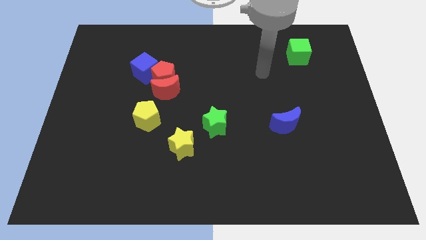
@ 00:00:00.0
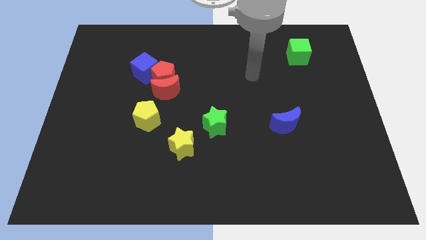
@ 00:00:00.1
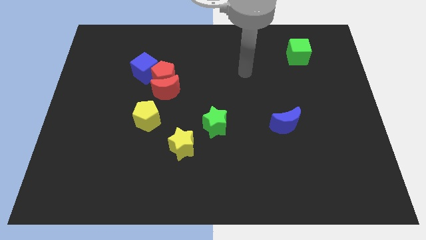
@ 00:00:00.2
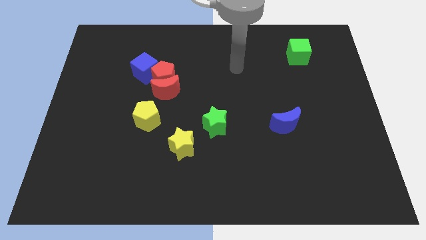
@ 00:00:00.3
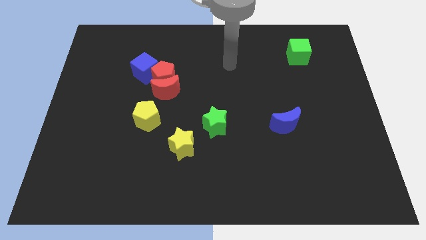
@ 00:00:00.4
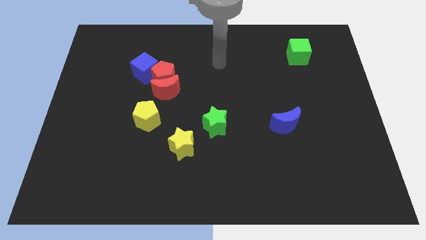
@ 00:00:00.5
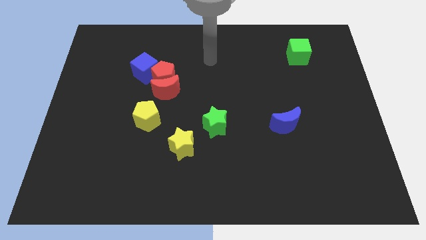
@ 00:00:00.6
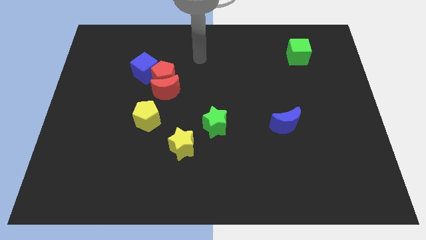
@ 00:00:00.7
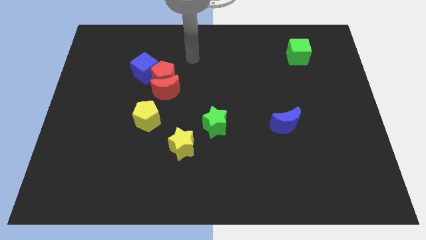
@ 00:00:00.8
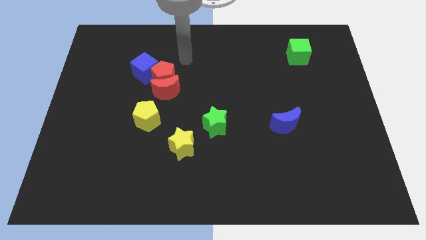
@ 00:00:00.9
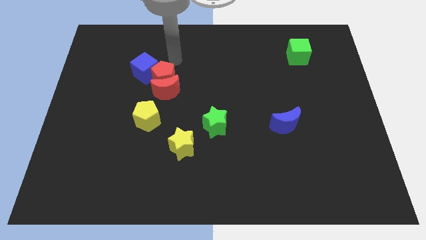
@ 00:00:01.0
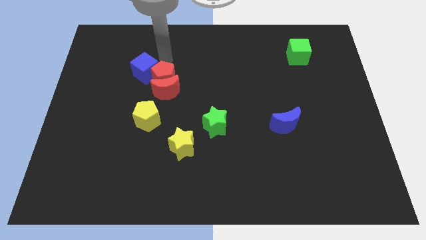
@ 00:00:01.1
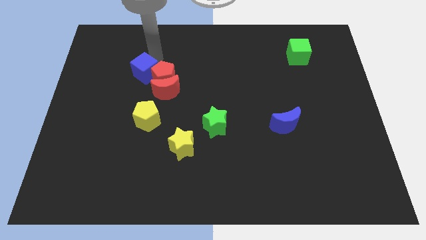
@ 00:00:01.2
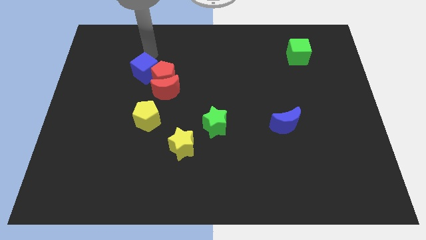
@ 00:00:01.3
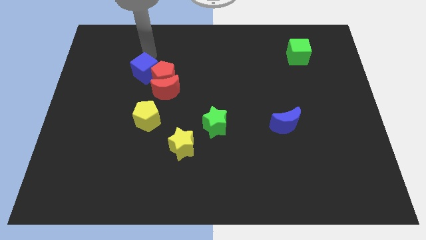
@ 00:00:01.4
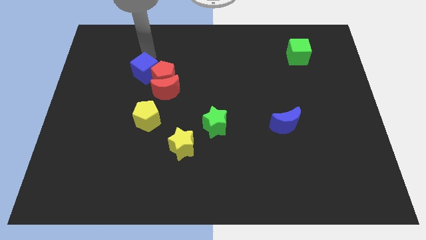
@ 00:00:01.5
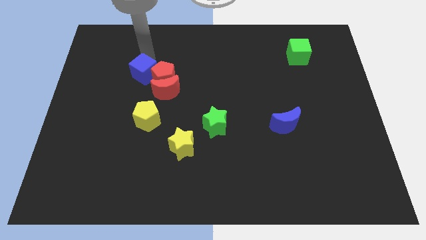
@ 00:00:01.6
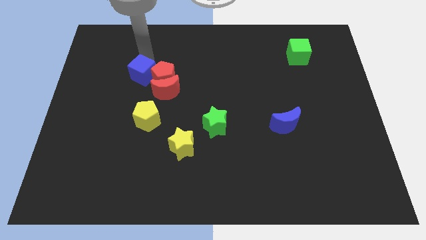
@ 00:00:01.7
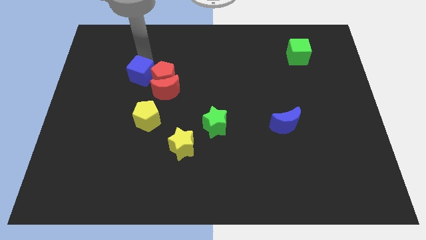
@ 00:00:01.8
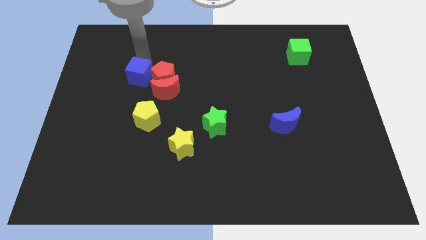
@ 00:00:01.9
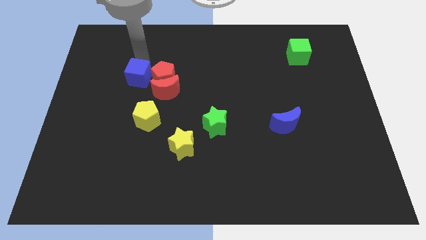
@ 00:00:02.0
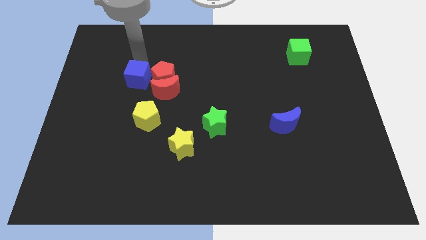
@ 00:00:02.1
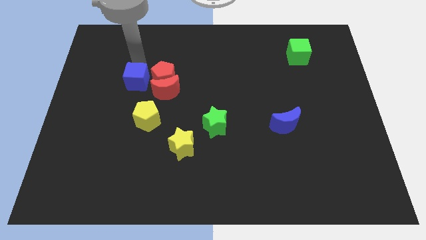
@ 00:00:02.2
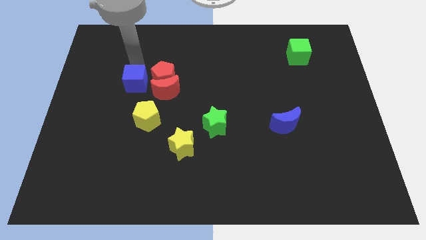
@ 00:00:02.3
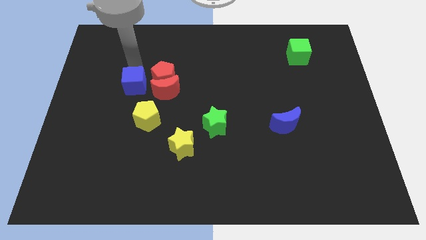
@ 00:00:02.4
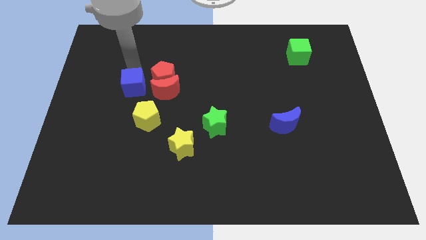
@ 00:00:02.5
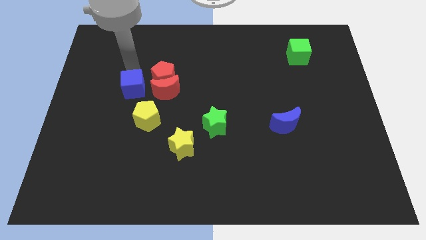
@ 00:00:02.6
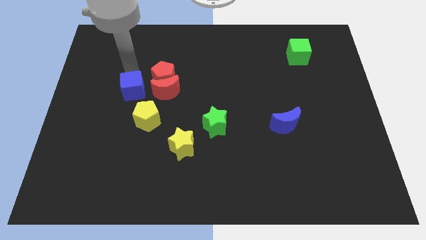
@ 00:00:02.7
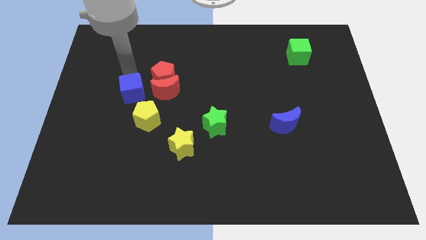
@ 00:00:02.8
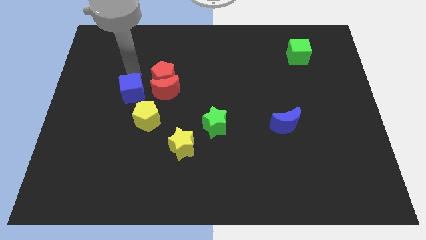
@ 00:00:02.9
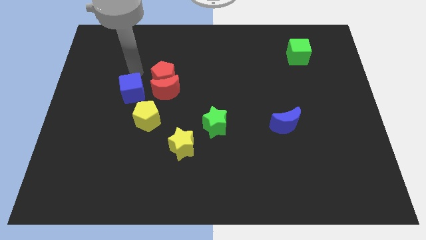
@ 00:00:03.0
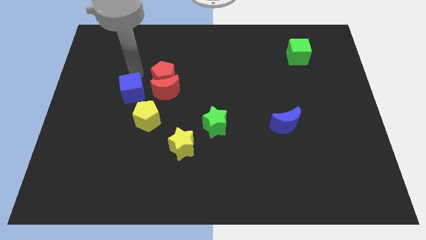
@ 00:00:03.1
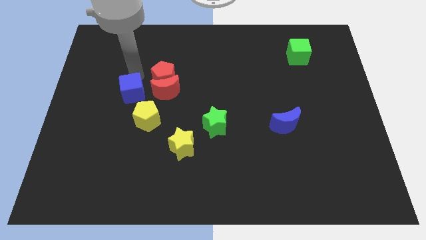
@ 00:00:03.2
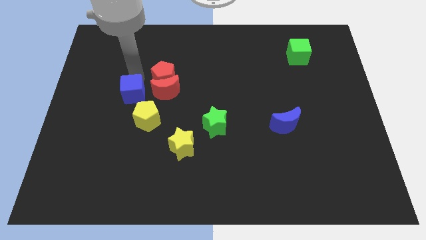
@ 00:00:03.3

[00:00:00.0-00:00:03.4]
slide the blue cube down a little

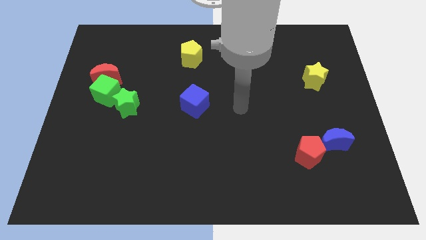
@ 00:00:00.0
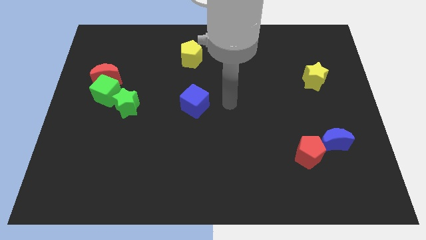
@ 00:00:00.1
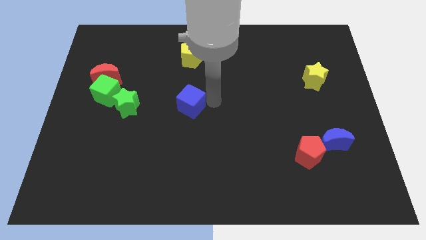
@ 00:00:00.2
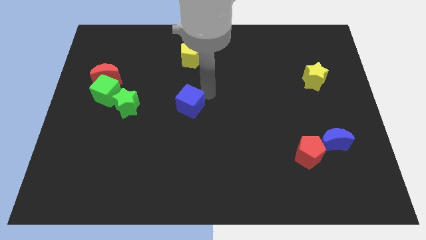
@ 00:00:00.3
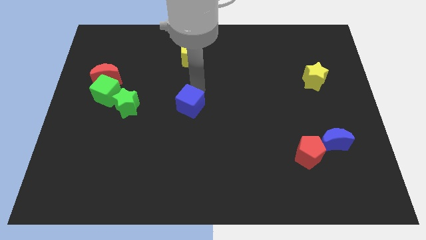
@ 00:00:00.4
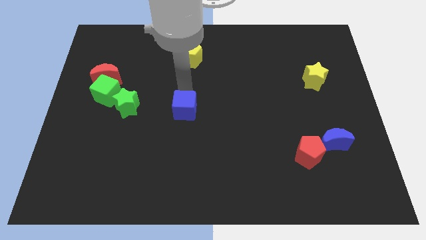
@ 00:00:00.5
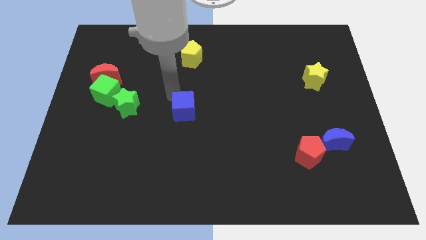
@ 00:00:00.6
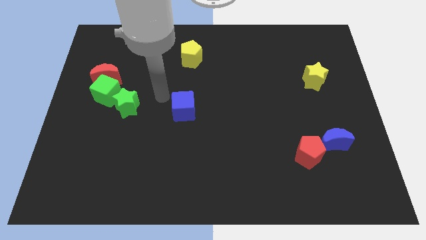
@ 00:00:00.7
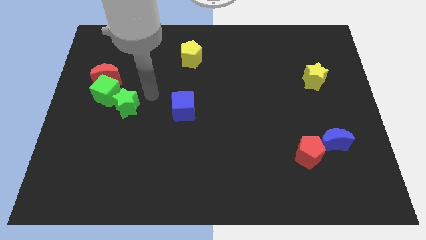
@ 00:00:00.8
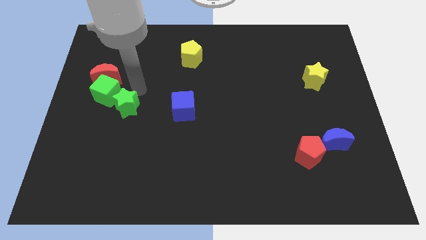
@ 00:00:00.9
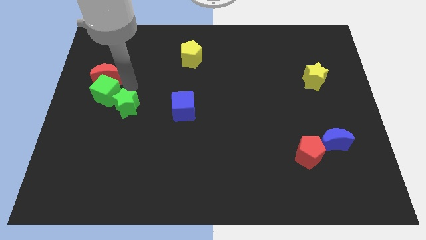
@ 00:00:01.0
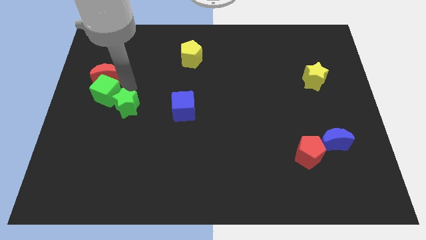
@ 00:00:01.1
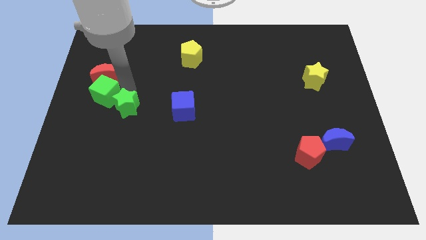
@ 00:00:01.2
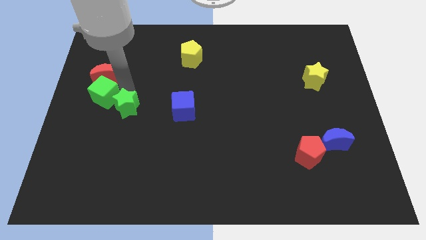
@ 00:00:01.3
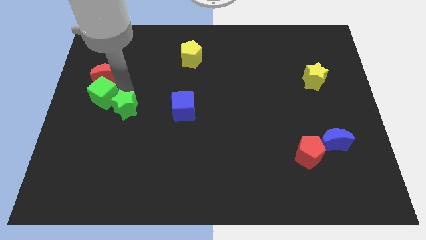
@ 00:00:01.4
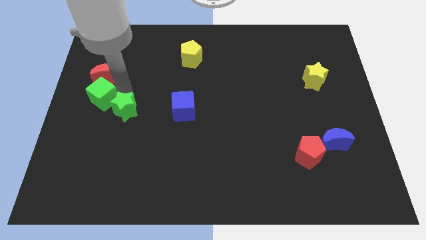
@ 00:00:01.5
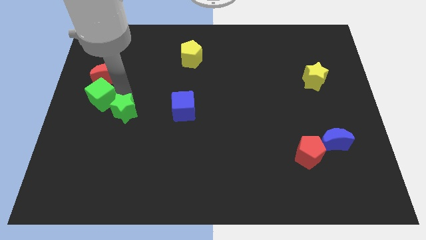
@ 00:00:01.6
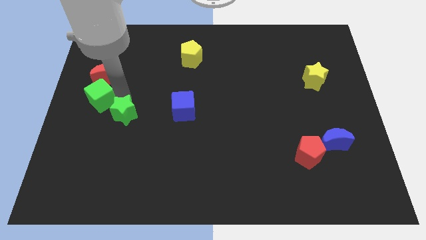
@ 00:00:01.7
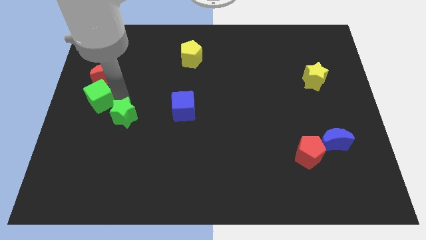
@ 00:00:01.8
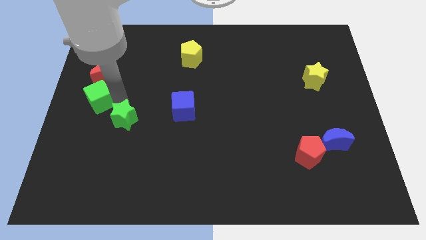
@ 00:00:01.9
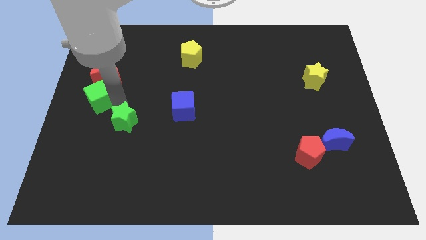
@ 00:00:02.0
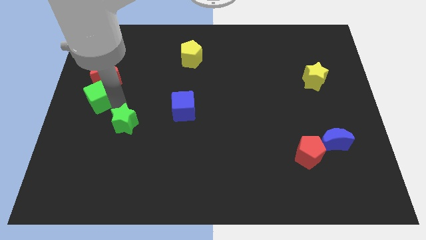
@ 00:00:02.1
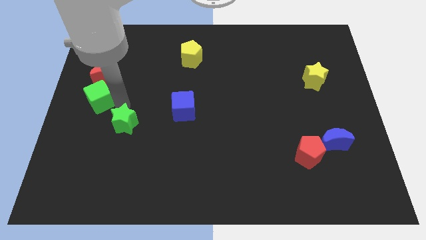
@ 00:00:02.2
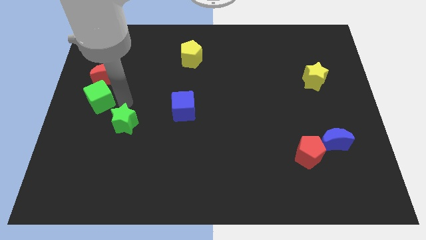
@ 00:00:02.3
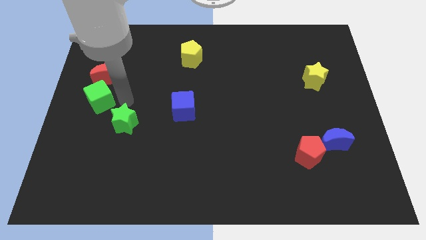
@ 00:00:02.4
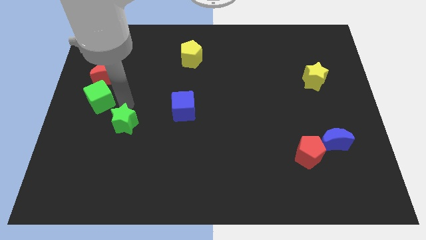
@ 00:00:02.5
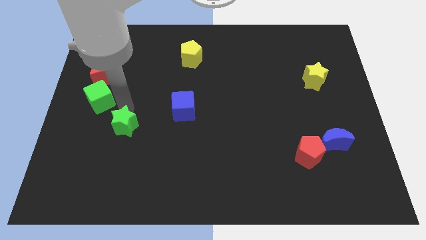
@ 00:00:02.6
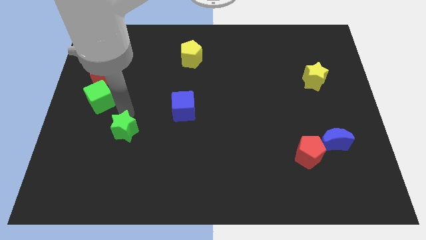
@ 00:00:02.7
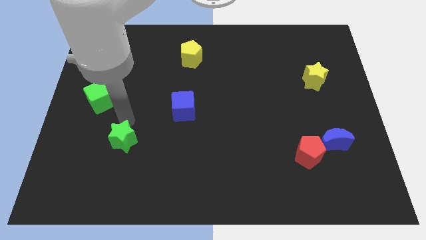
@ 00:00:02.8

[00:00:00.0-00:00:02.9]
push the green star downwards a little bit

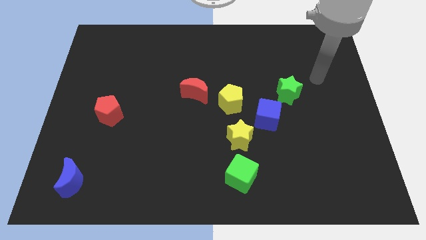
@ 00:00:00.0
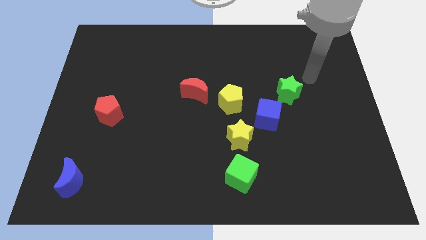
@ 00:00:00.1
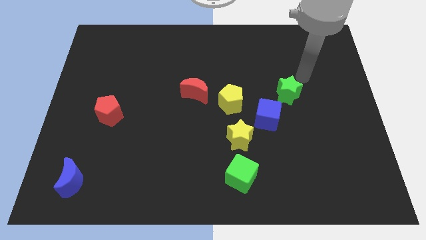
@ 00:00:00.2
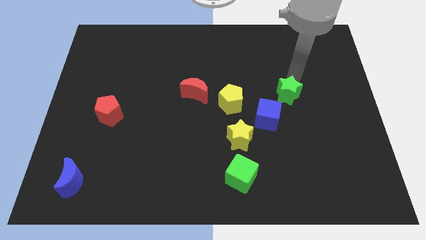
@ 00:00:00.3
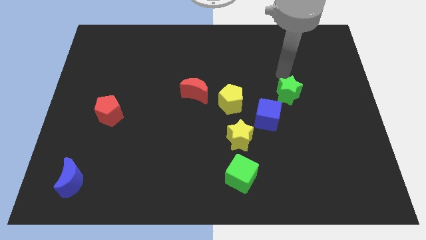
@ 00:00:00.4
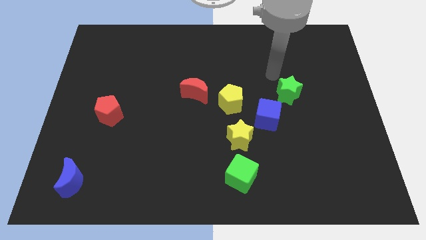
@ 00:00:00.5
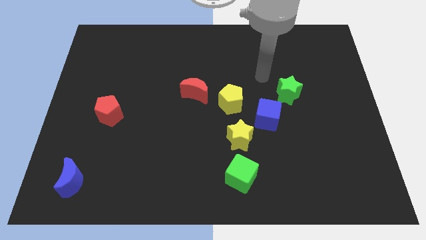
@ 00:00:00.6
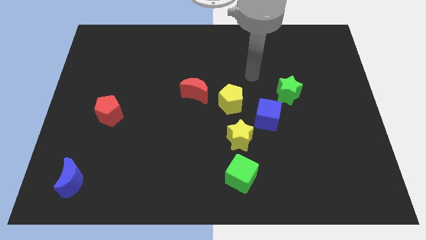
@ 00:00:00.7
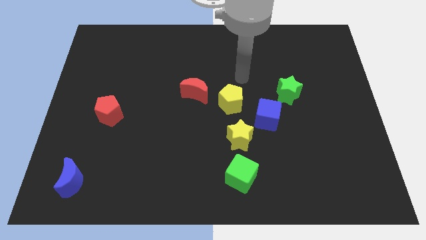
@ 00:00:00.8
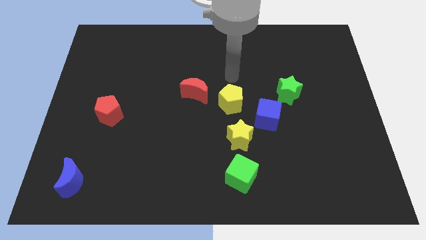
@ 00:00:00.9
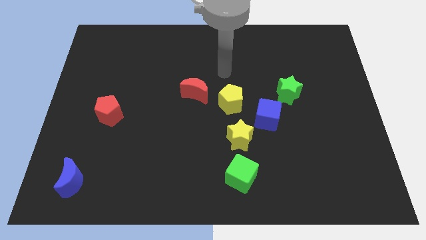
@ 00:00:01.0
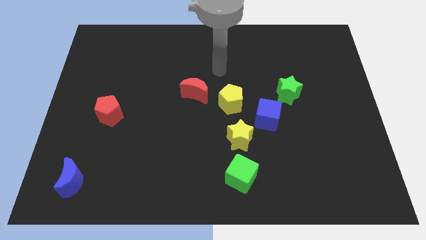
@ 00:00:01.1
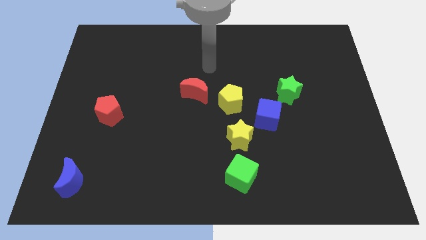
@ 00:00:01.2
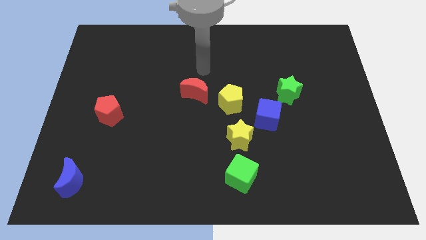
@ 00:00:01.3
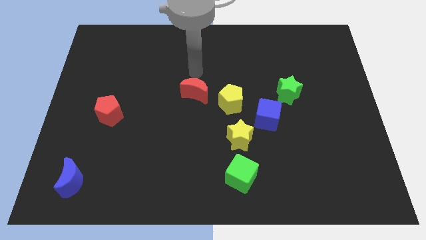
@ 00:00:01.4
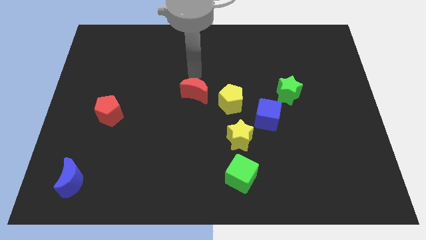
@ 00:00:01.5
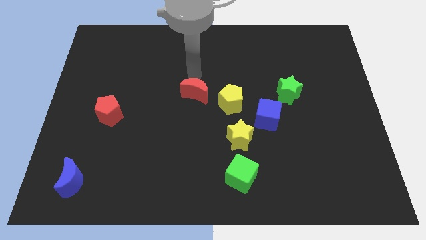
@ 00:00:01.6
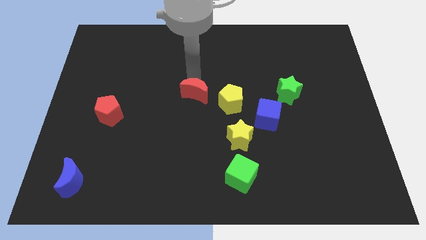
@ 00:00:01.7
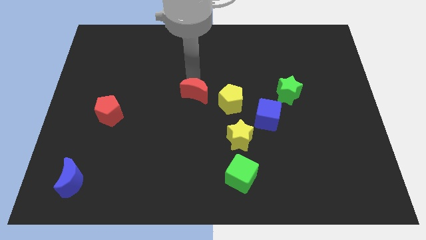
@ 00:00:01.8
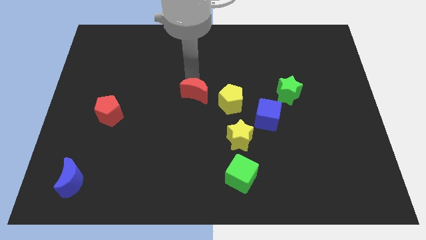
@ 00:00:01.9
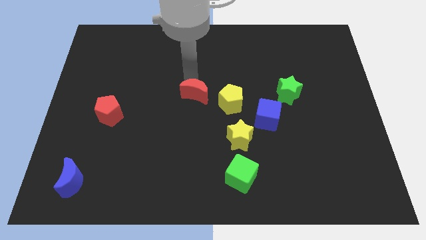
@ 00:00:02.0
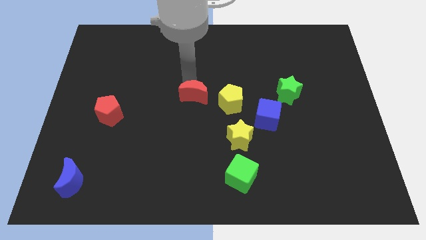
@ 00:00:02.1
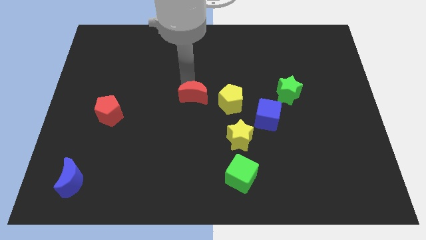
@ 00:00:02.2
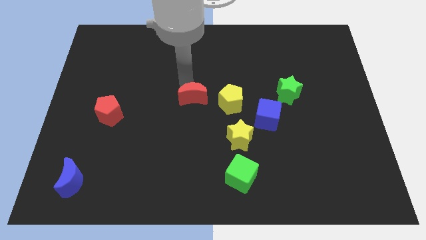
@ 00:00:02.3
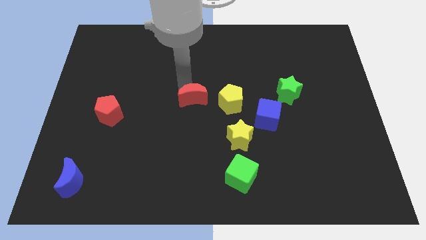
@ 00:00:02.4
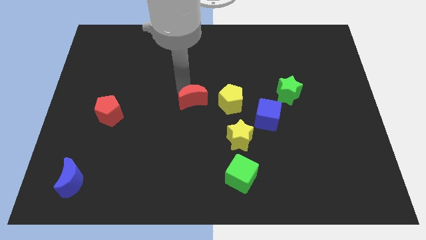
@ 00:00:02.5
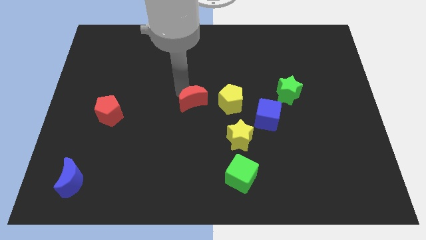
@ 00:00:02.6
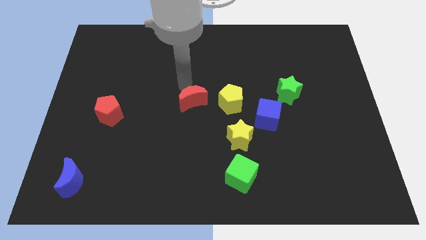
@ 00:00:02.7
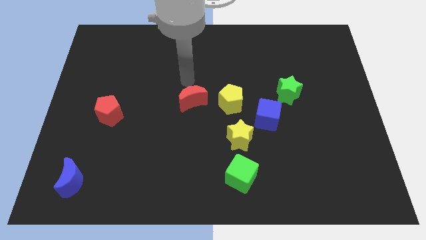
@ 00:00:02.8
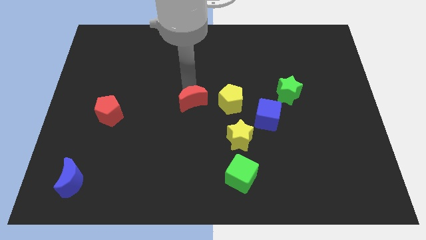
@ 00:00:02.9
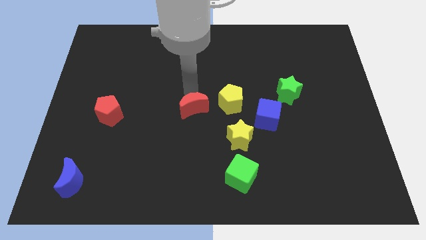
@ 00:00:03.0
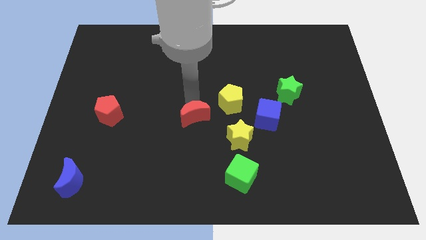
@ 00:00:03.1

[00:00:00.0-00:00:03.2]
slide the red moon down somewhat
